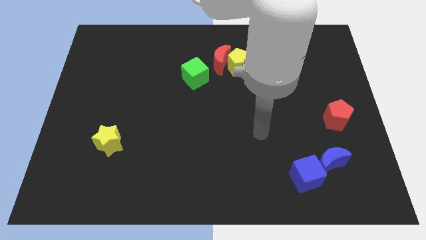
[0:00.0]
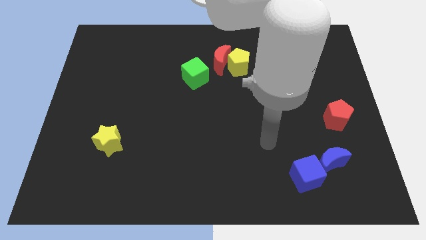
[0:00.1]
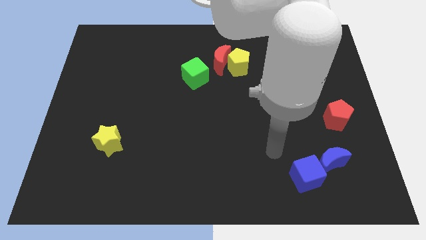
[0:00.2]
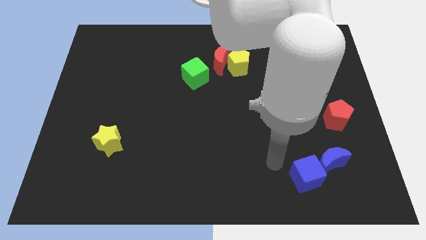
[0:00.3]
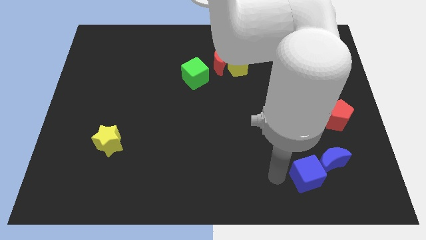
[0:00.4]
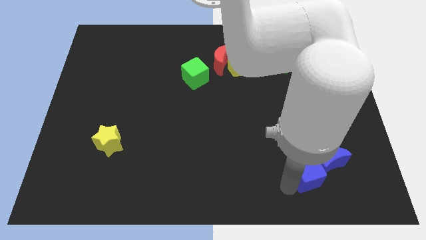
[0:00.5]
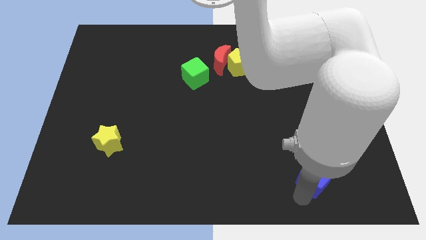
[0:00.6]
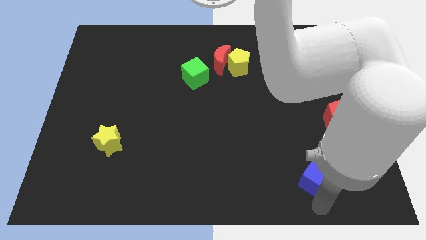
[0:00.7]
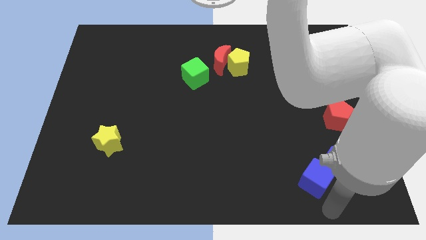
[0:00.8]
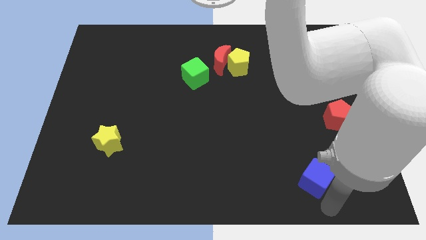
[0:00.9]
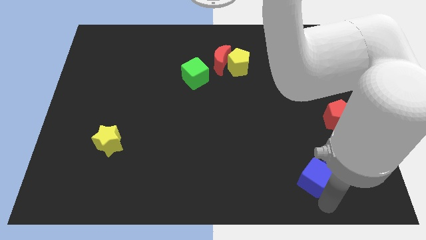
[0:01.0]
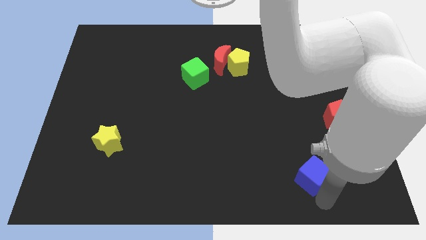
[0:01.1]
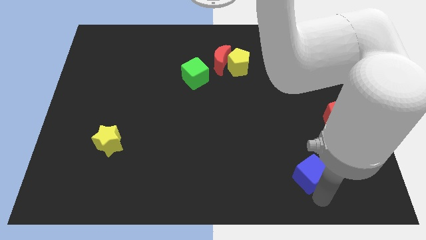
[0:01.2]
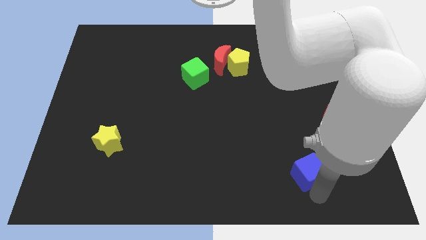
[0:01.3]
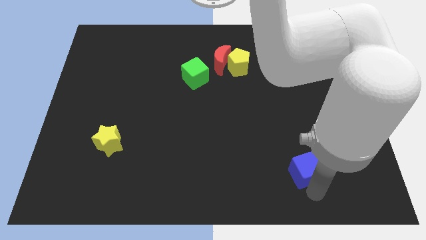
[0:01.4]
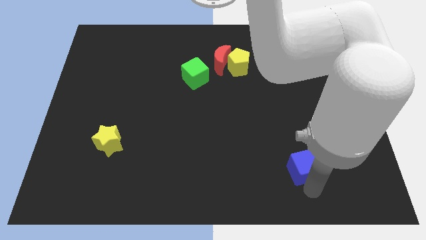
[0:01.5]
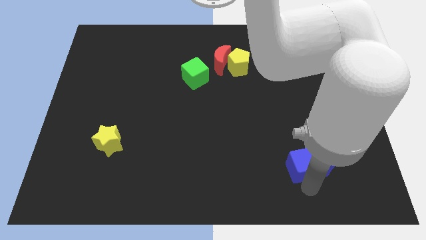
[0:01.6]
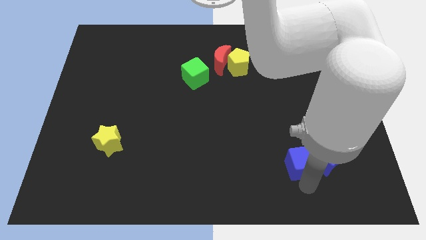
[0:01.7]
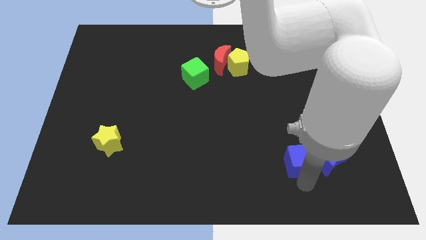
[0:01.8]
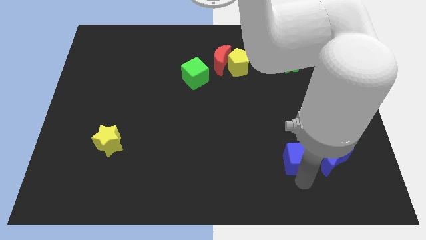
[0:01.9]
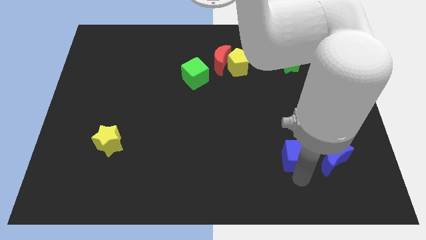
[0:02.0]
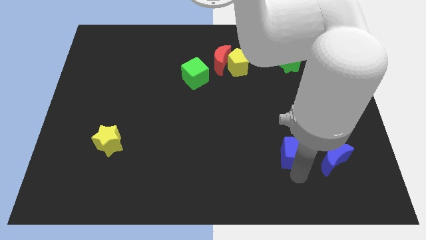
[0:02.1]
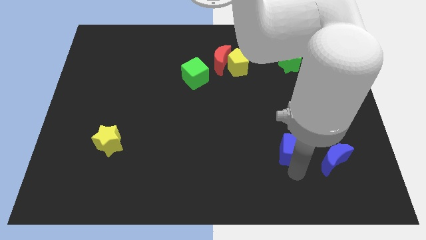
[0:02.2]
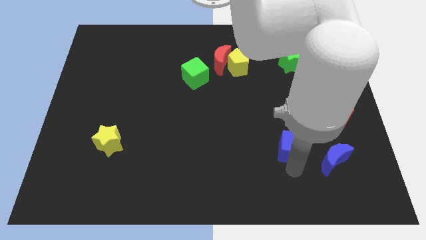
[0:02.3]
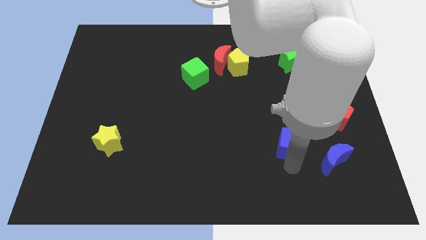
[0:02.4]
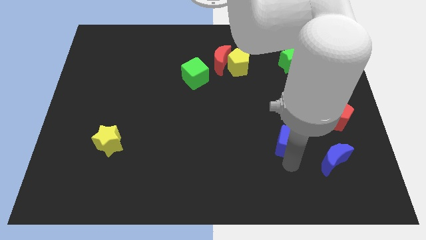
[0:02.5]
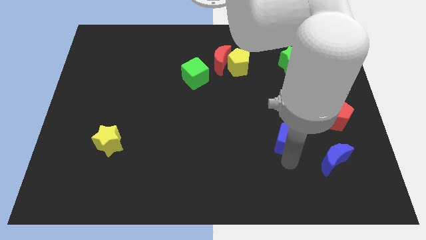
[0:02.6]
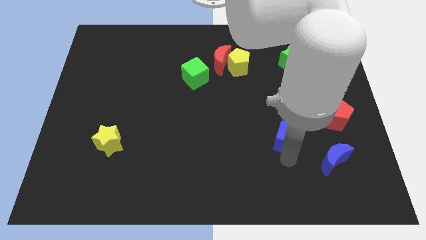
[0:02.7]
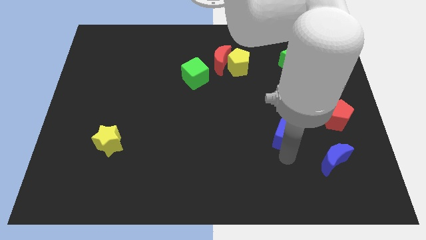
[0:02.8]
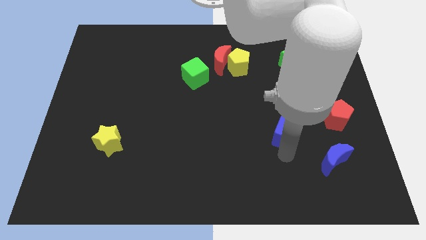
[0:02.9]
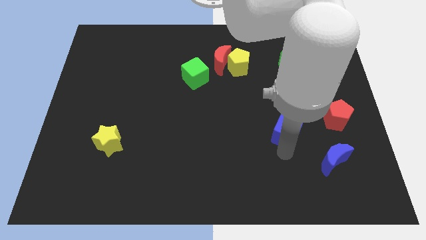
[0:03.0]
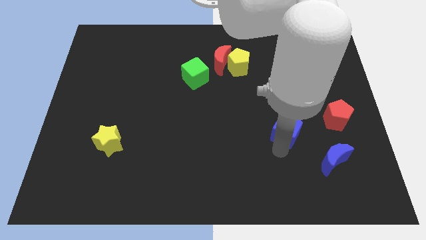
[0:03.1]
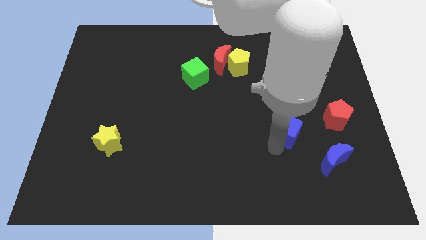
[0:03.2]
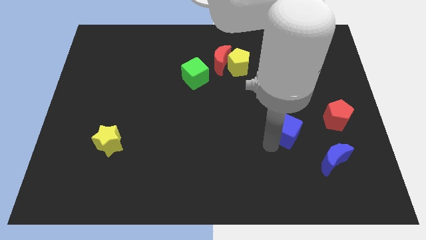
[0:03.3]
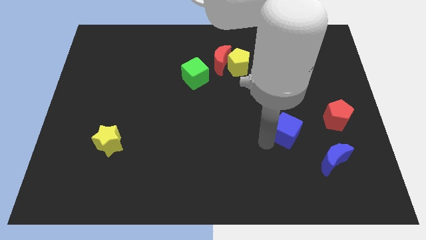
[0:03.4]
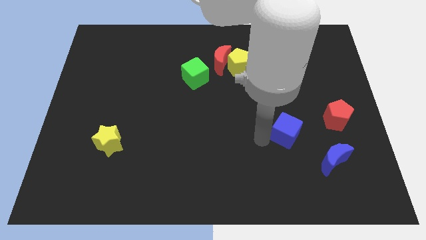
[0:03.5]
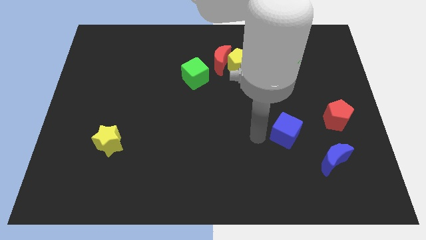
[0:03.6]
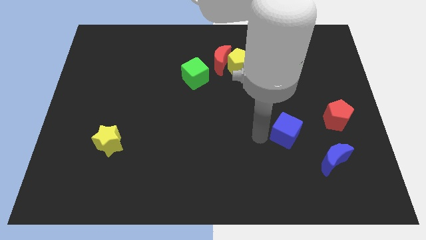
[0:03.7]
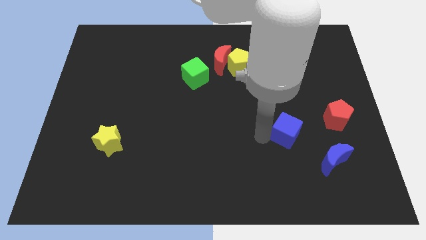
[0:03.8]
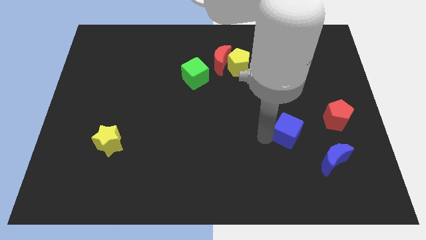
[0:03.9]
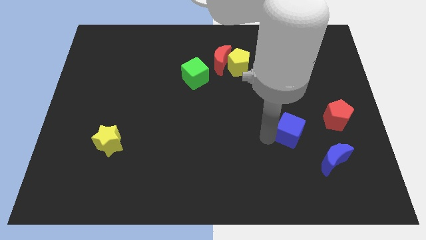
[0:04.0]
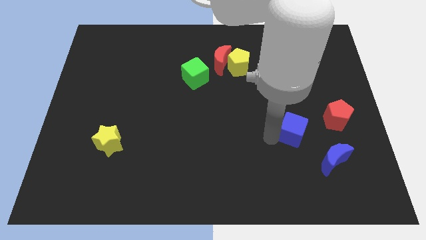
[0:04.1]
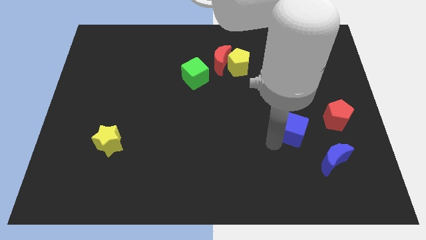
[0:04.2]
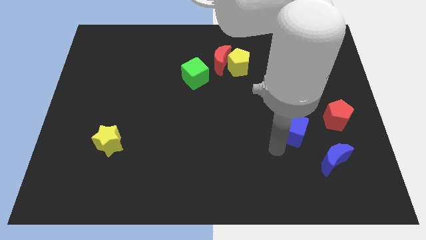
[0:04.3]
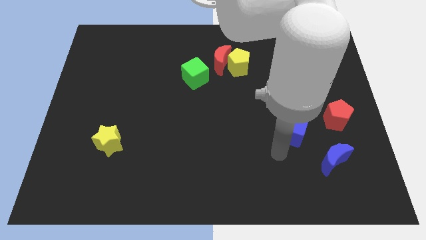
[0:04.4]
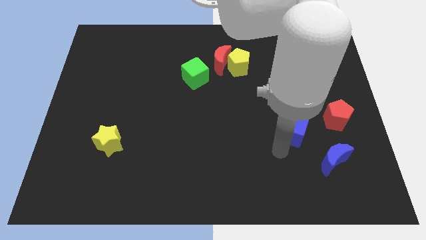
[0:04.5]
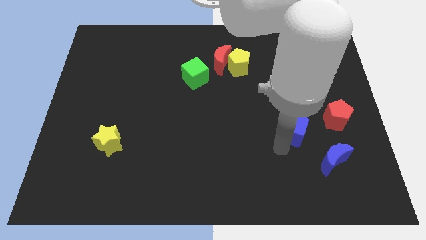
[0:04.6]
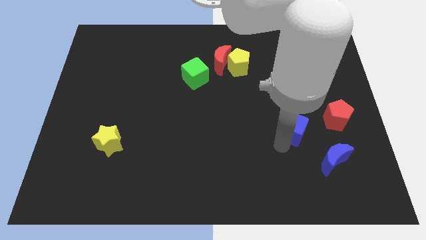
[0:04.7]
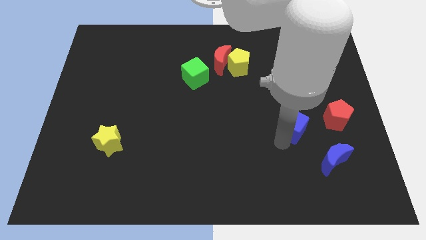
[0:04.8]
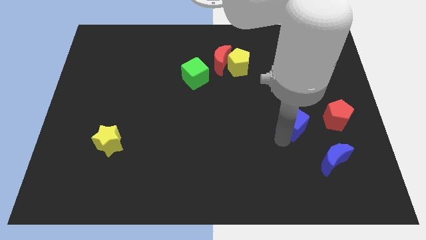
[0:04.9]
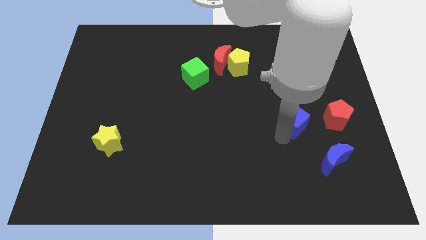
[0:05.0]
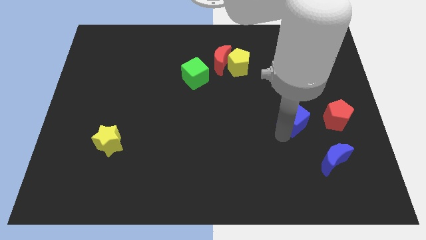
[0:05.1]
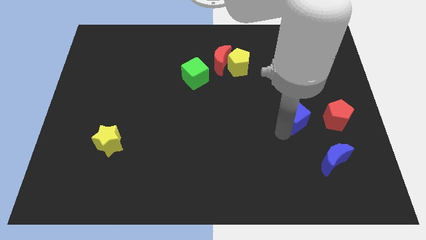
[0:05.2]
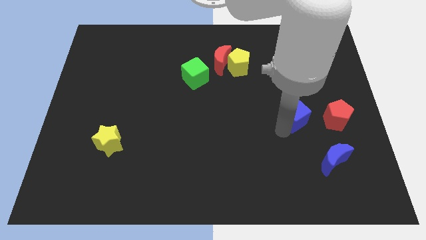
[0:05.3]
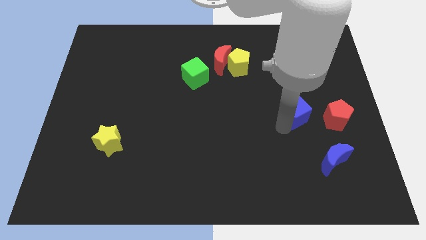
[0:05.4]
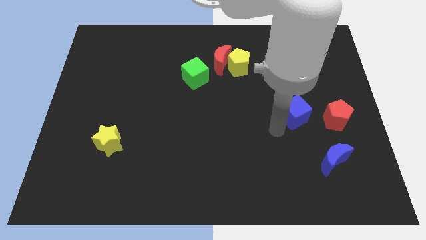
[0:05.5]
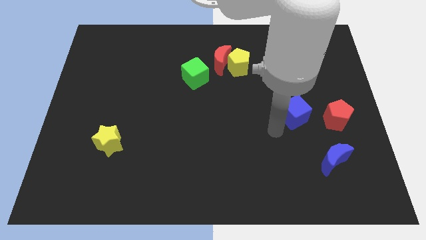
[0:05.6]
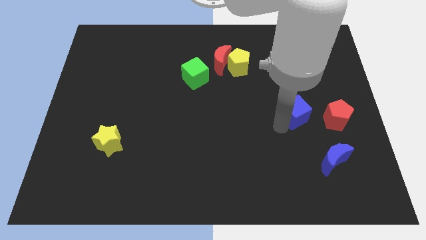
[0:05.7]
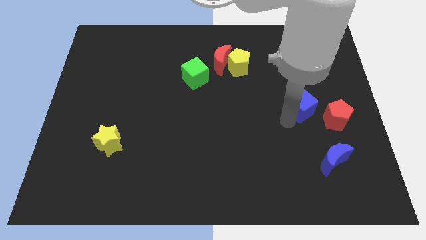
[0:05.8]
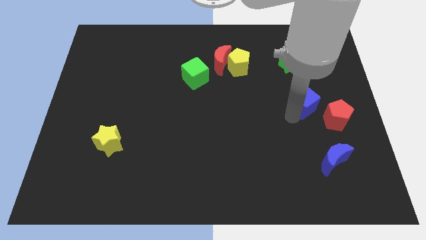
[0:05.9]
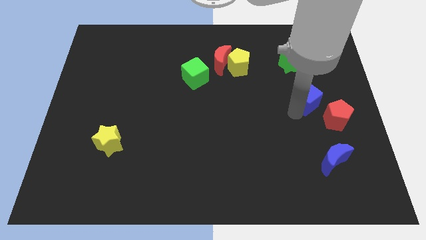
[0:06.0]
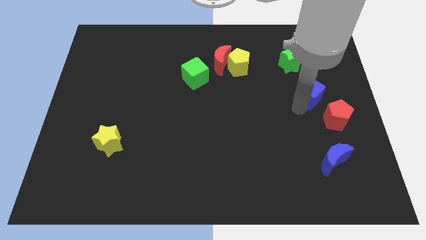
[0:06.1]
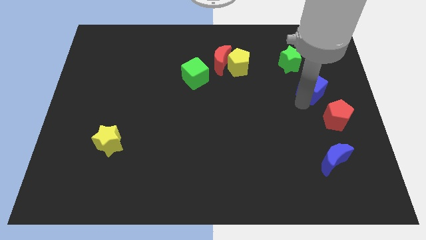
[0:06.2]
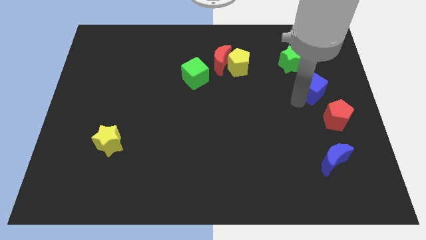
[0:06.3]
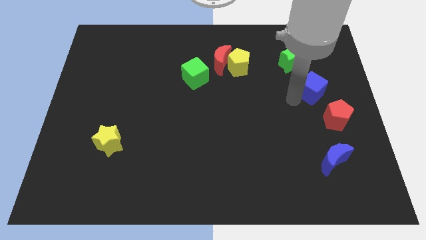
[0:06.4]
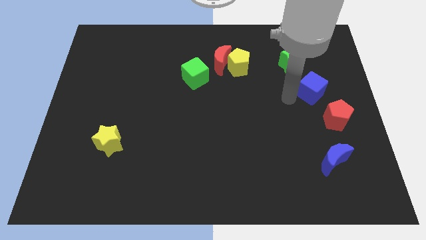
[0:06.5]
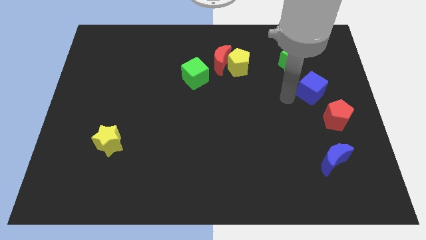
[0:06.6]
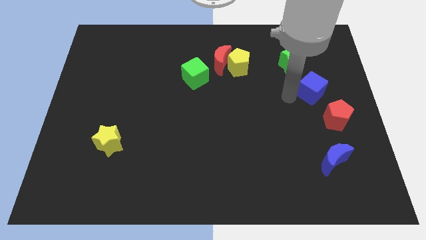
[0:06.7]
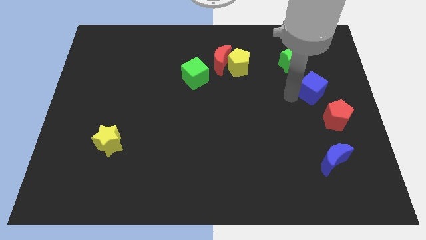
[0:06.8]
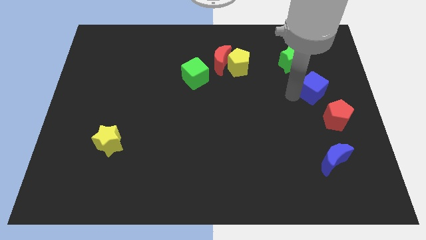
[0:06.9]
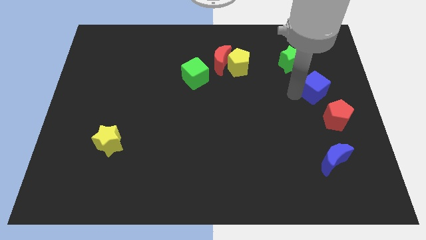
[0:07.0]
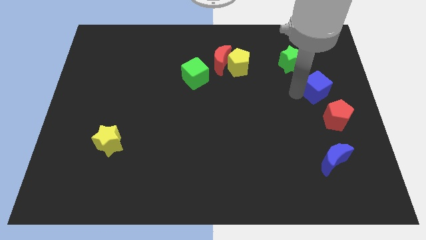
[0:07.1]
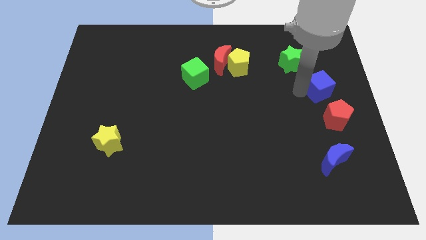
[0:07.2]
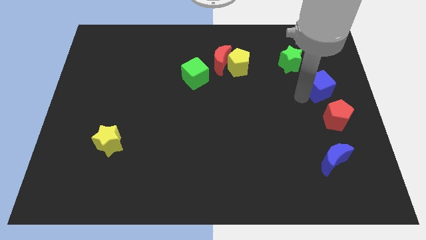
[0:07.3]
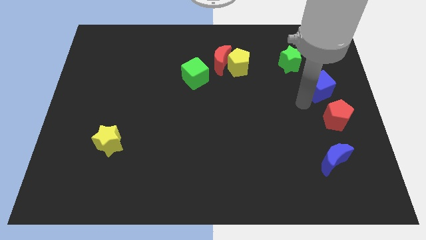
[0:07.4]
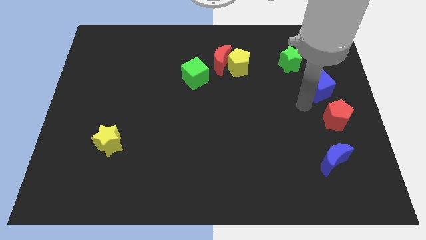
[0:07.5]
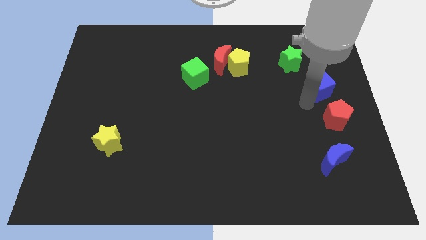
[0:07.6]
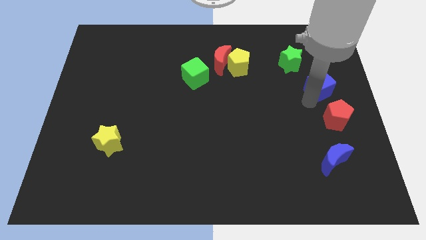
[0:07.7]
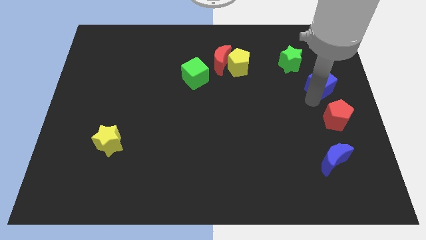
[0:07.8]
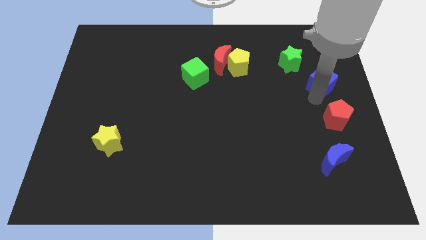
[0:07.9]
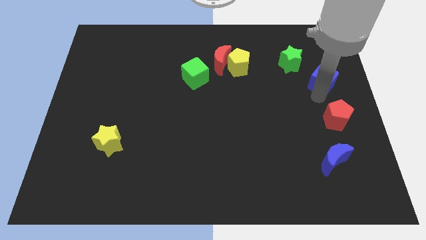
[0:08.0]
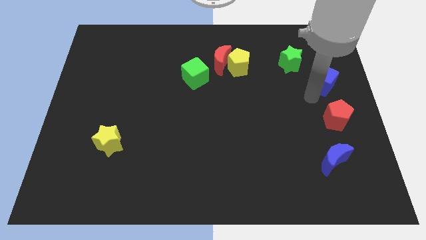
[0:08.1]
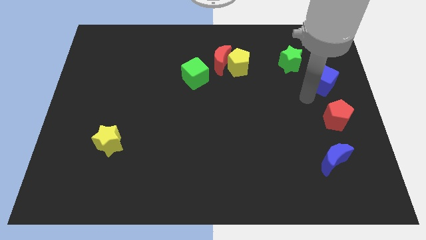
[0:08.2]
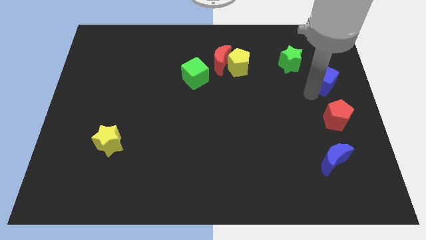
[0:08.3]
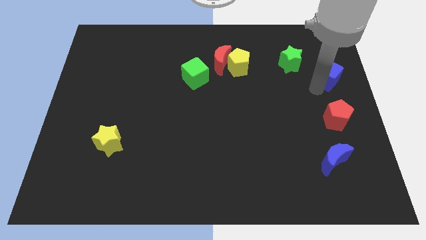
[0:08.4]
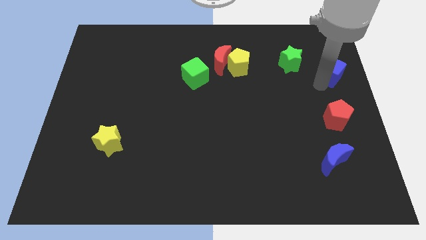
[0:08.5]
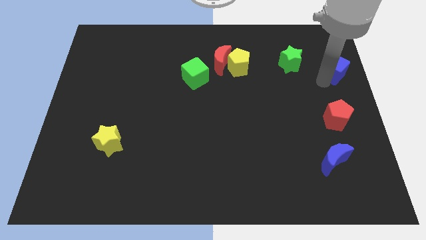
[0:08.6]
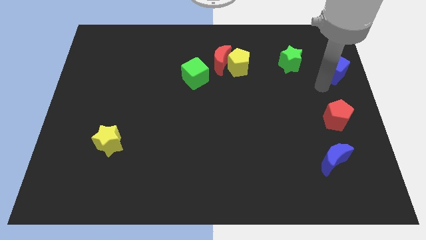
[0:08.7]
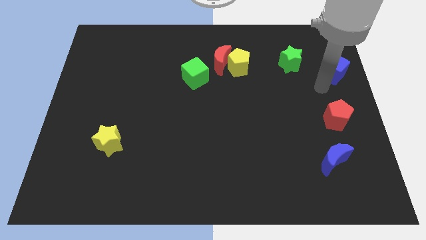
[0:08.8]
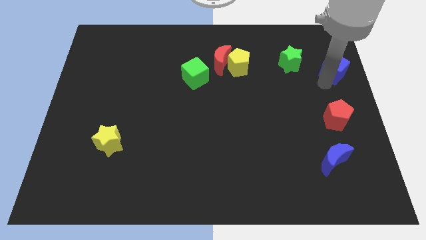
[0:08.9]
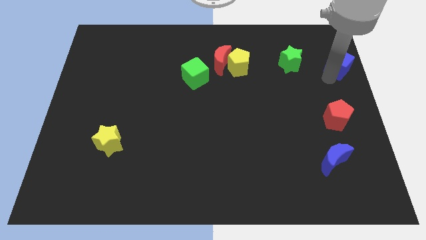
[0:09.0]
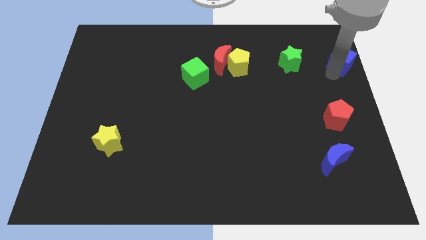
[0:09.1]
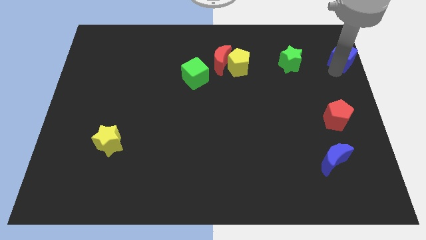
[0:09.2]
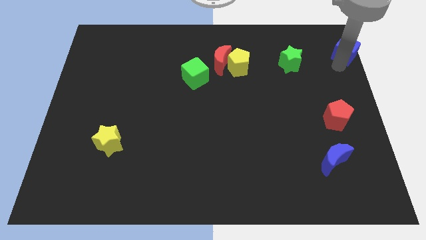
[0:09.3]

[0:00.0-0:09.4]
slide the blue cube to the top right
